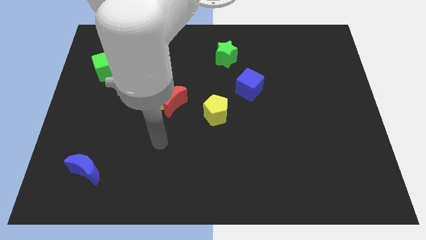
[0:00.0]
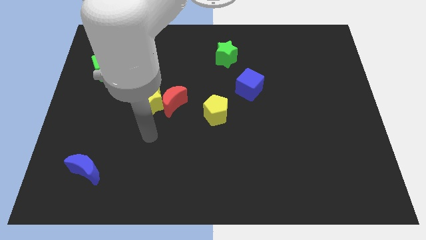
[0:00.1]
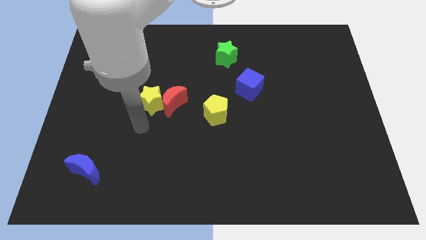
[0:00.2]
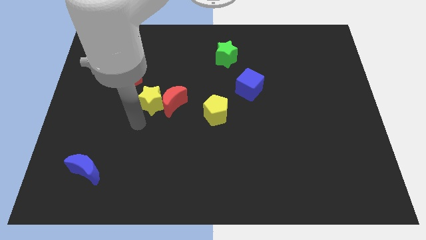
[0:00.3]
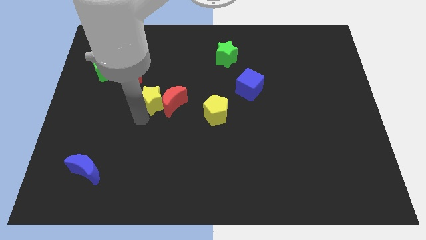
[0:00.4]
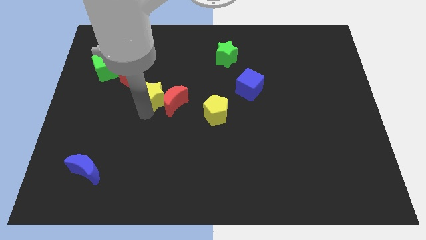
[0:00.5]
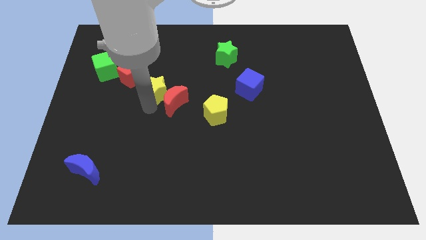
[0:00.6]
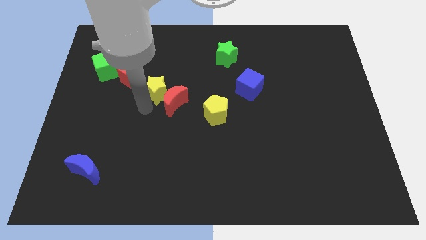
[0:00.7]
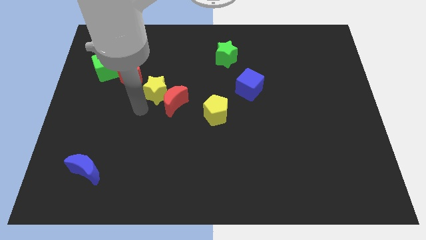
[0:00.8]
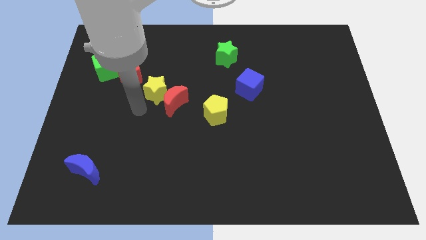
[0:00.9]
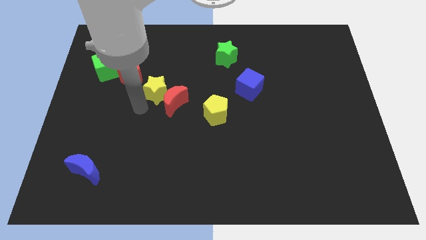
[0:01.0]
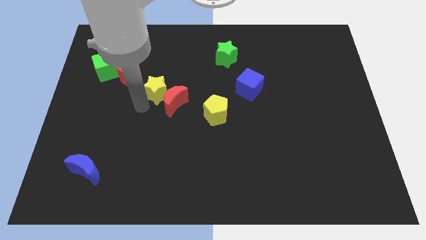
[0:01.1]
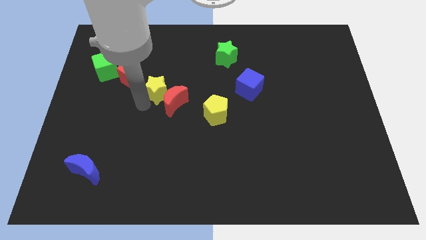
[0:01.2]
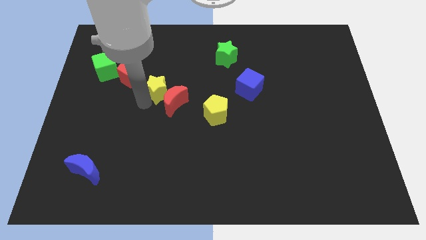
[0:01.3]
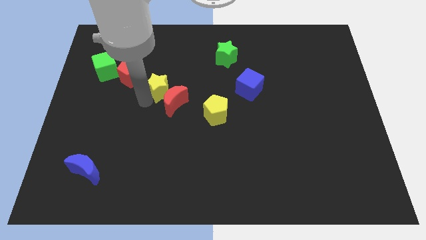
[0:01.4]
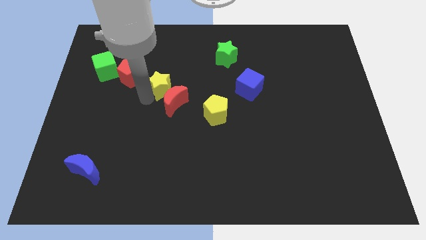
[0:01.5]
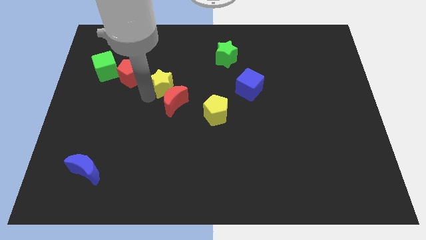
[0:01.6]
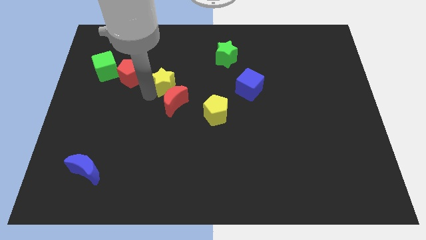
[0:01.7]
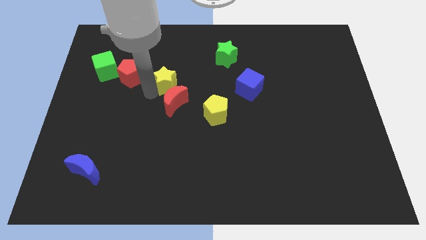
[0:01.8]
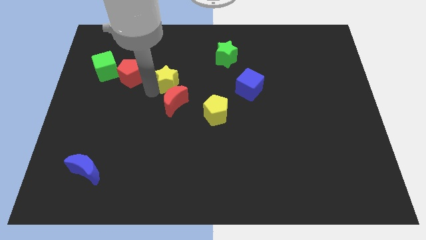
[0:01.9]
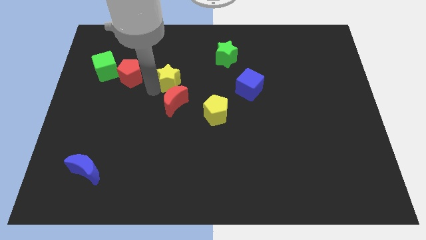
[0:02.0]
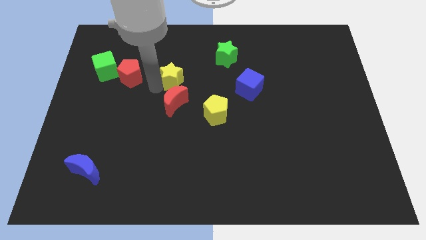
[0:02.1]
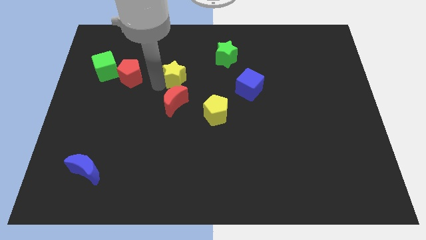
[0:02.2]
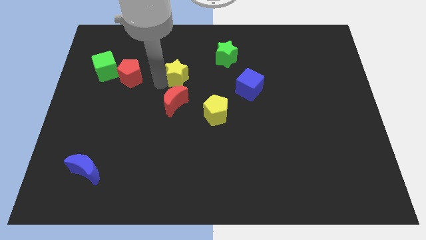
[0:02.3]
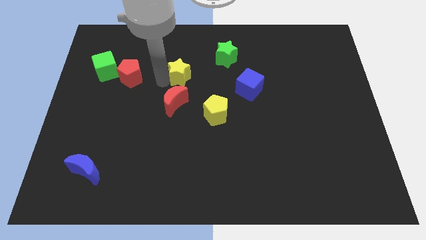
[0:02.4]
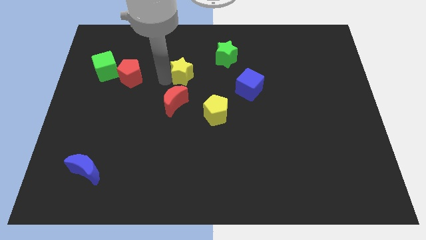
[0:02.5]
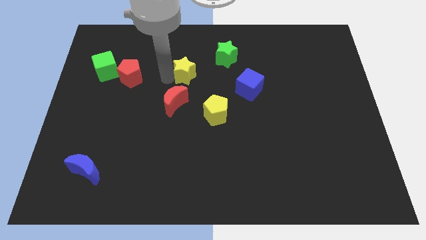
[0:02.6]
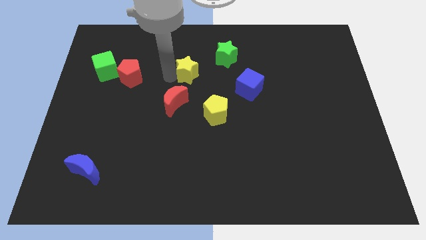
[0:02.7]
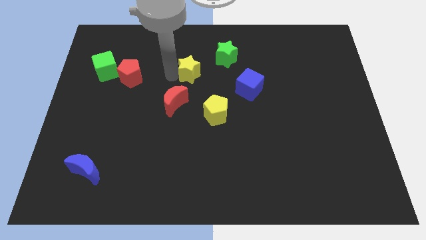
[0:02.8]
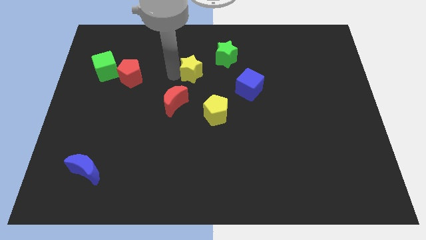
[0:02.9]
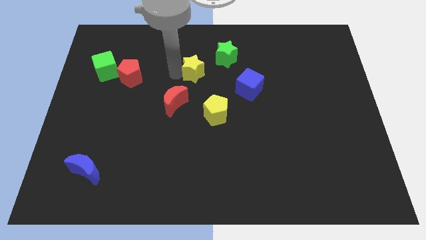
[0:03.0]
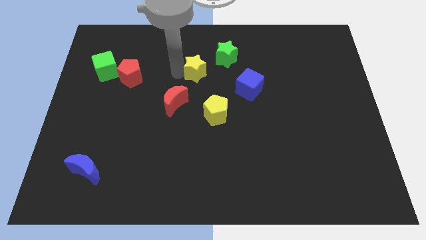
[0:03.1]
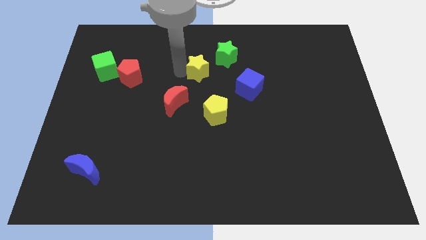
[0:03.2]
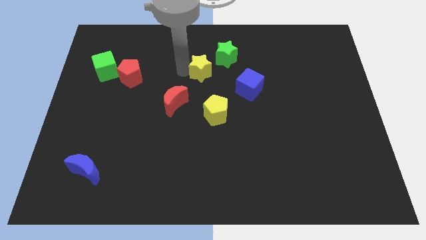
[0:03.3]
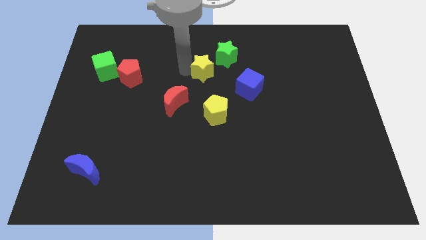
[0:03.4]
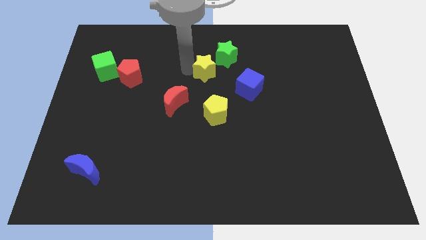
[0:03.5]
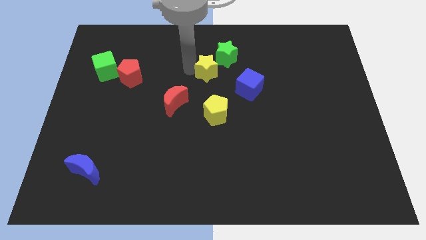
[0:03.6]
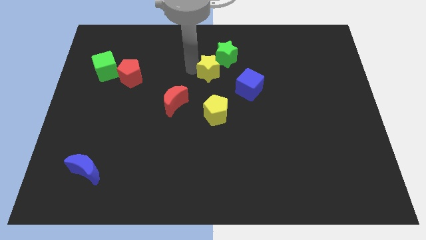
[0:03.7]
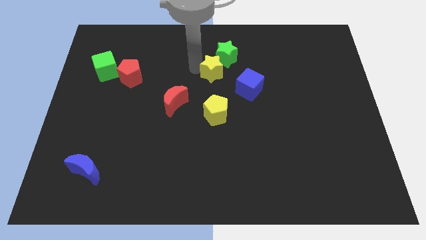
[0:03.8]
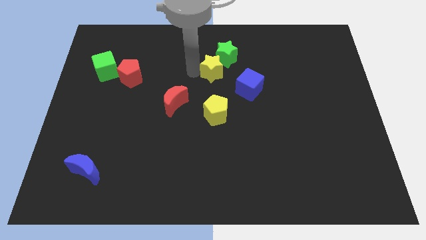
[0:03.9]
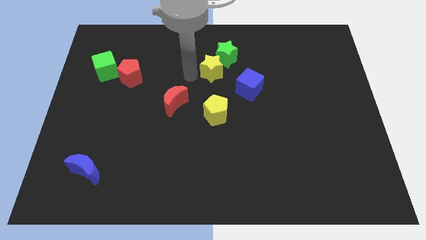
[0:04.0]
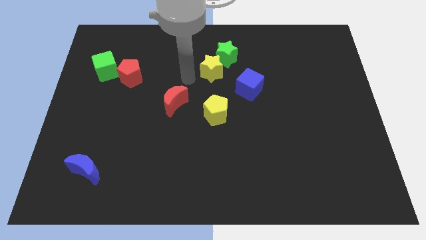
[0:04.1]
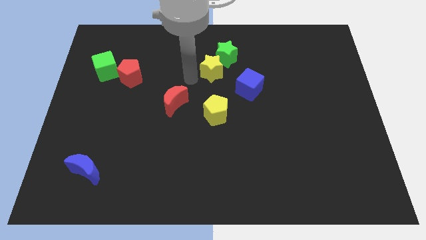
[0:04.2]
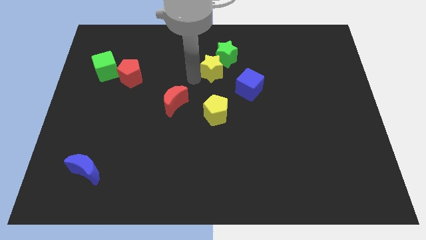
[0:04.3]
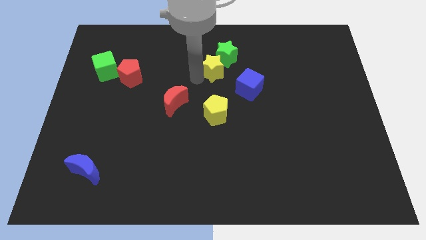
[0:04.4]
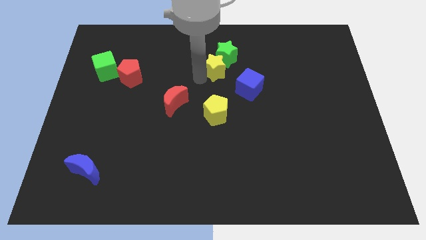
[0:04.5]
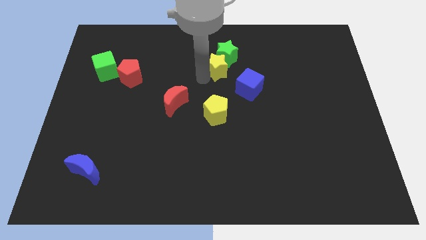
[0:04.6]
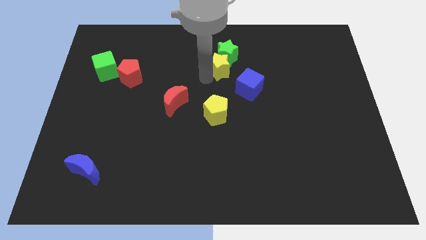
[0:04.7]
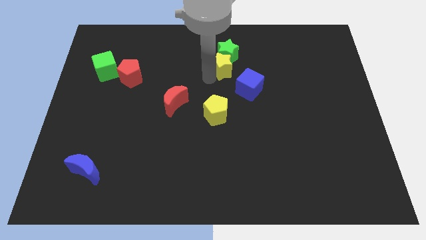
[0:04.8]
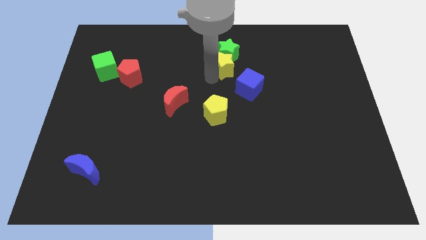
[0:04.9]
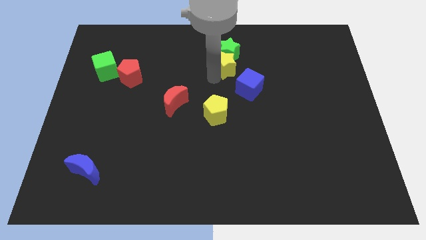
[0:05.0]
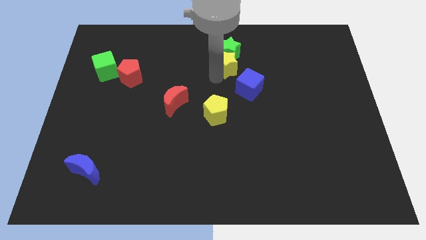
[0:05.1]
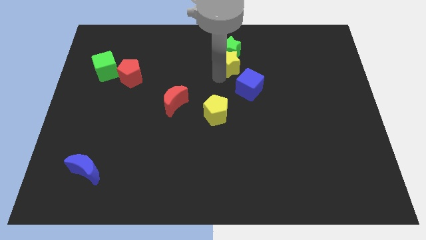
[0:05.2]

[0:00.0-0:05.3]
push the yellow star to the top of the blue cube

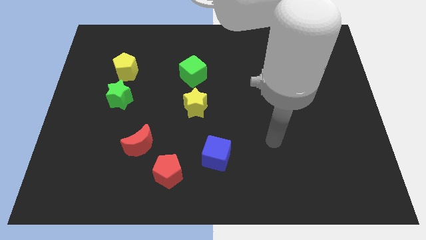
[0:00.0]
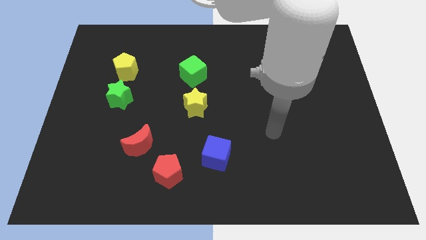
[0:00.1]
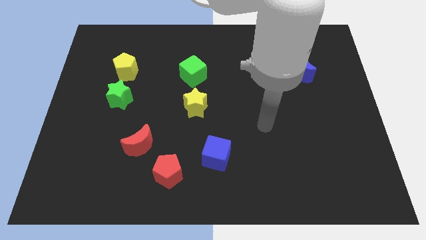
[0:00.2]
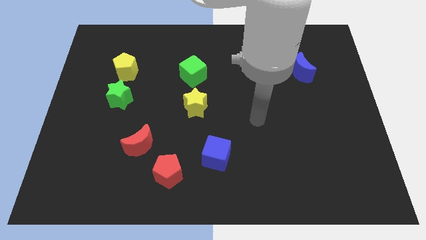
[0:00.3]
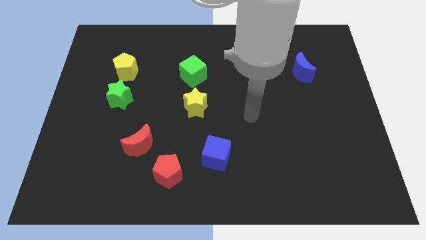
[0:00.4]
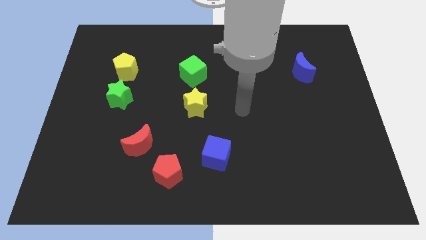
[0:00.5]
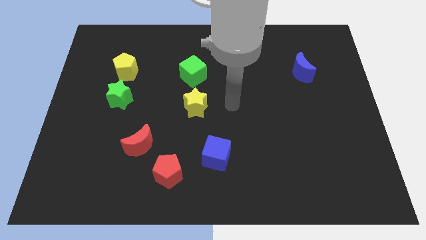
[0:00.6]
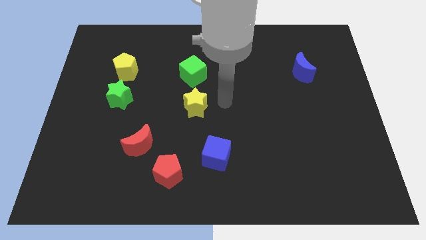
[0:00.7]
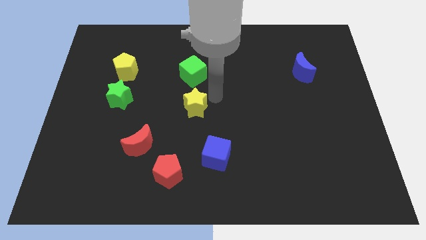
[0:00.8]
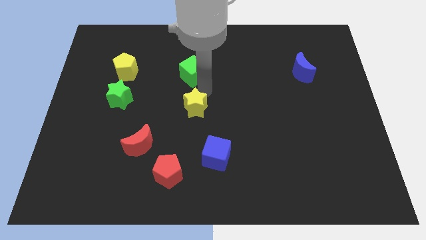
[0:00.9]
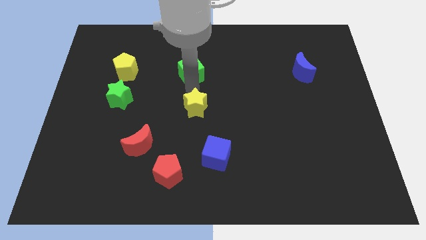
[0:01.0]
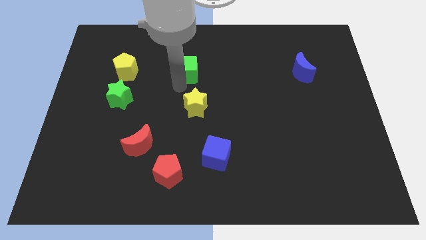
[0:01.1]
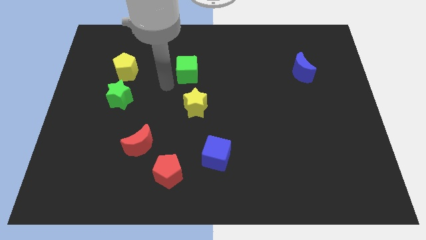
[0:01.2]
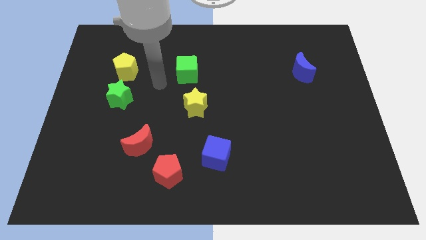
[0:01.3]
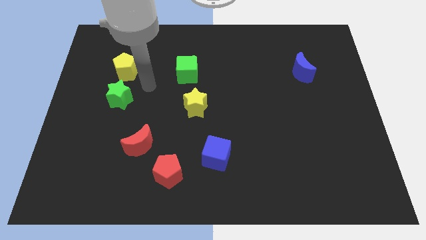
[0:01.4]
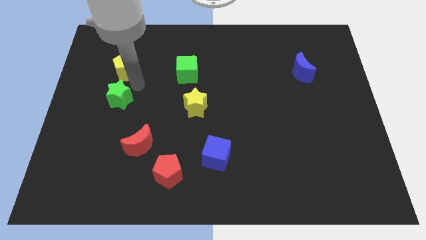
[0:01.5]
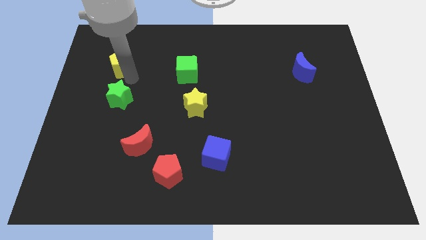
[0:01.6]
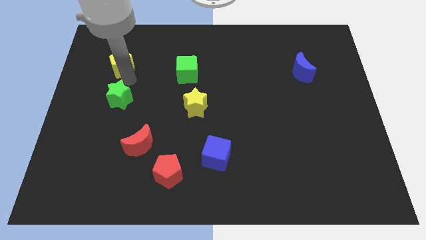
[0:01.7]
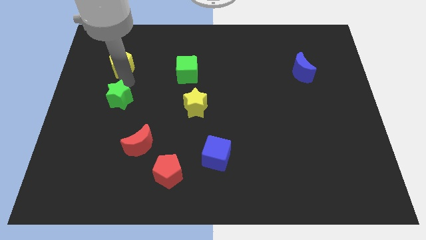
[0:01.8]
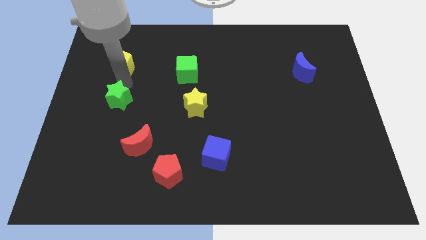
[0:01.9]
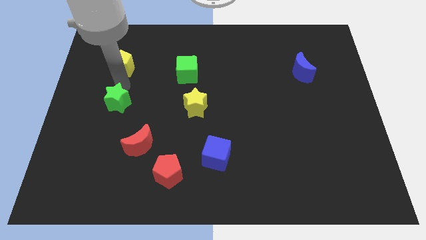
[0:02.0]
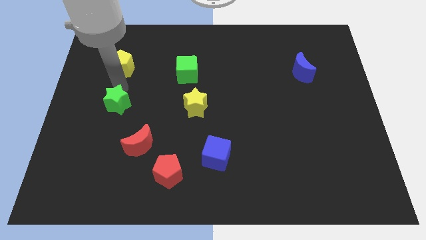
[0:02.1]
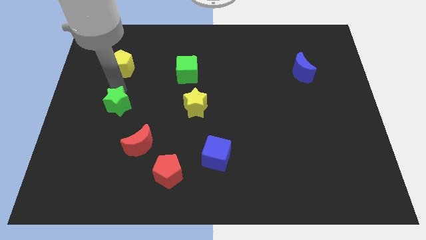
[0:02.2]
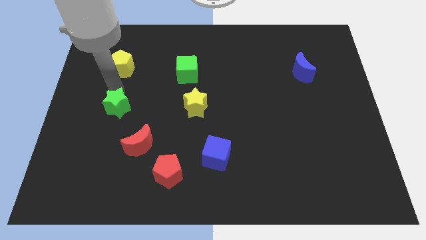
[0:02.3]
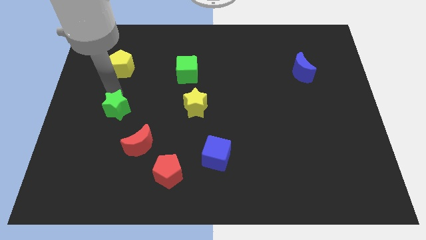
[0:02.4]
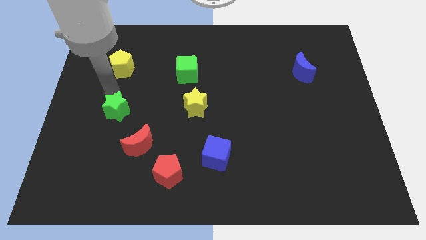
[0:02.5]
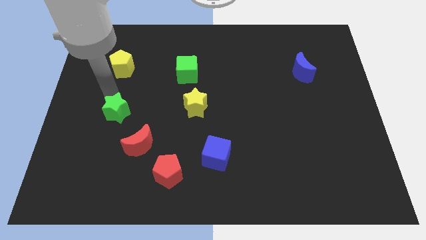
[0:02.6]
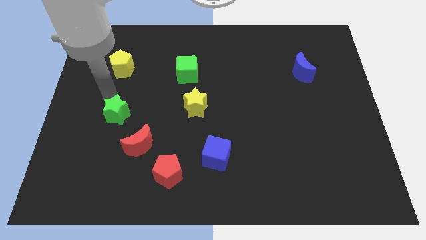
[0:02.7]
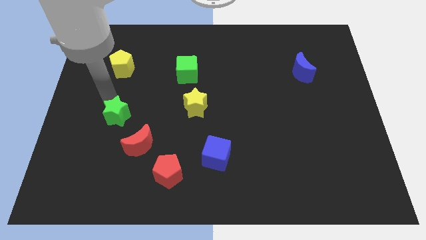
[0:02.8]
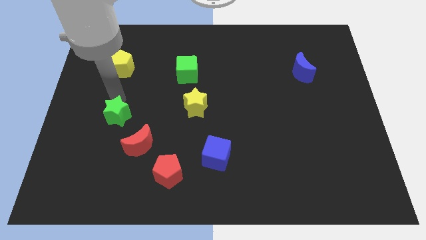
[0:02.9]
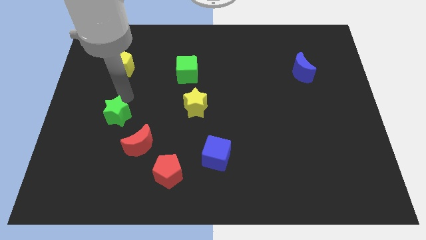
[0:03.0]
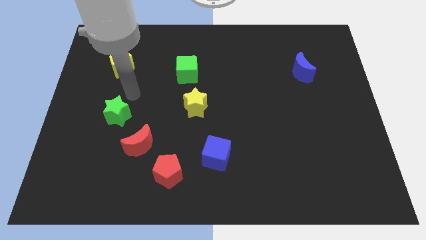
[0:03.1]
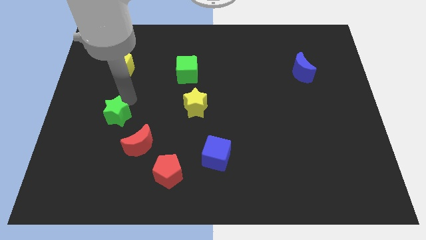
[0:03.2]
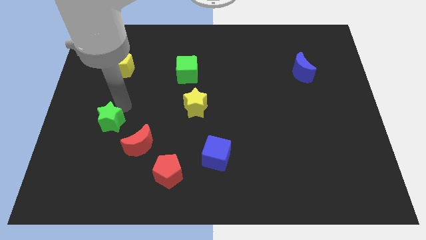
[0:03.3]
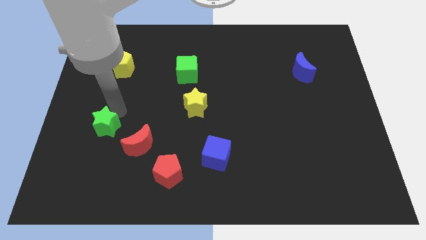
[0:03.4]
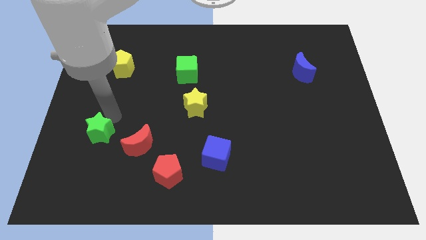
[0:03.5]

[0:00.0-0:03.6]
push the green star to the left side of the red moon
